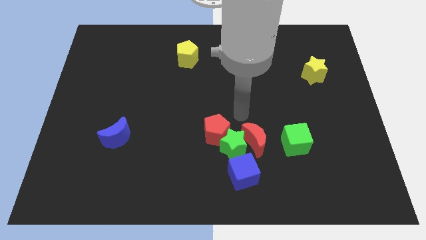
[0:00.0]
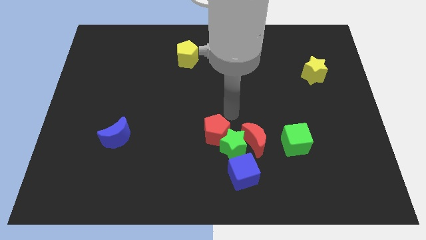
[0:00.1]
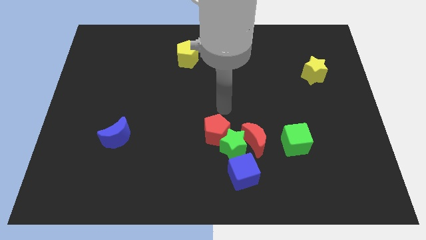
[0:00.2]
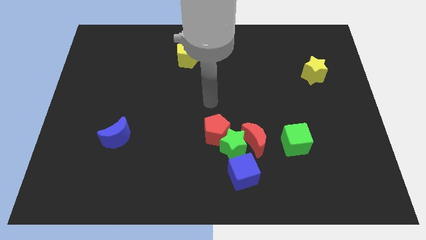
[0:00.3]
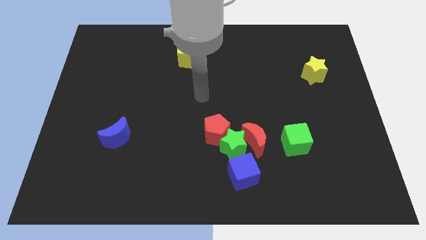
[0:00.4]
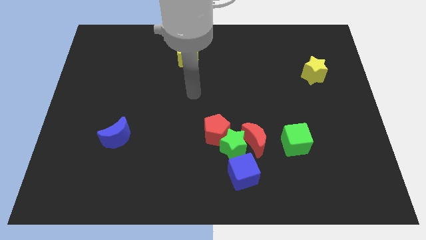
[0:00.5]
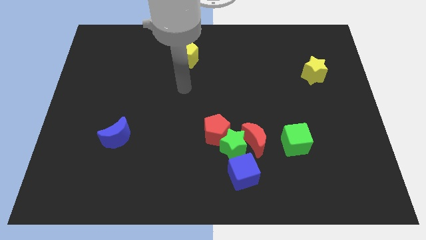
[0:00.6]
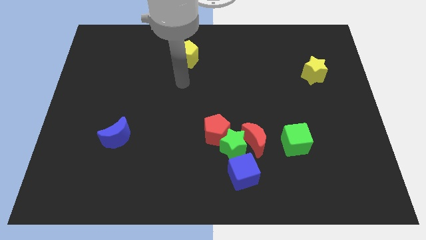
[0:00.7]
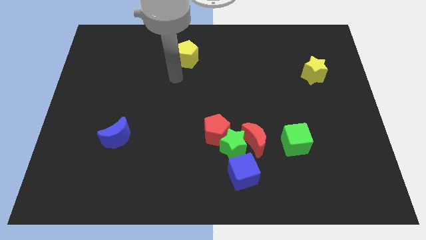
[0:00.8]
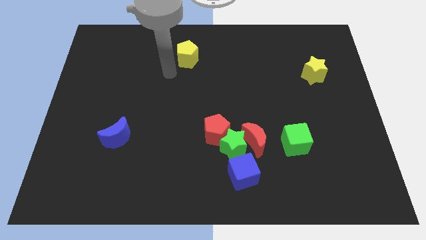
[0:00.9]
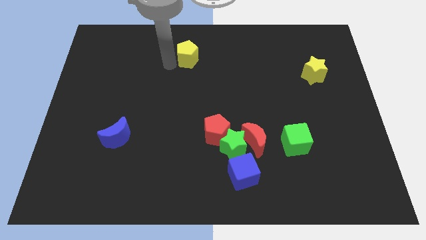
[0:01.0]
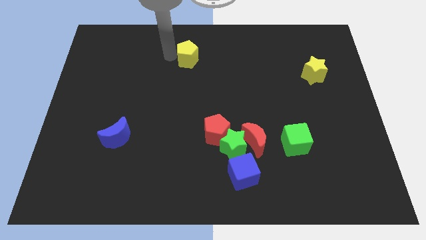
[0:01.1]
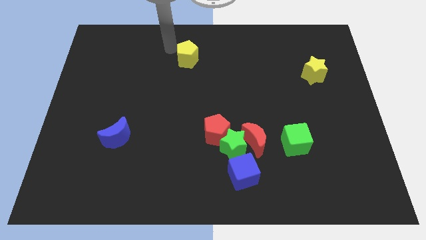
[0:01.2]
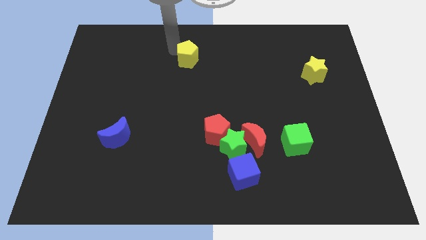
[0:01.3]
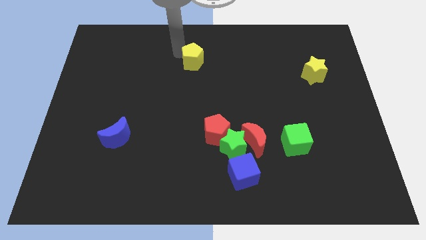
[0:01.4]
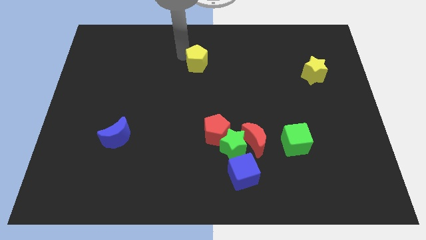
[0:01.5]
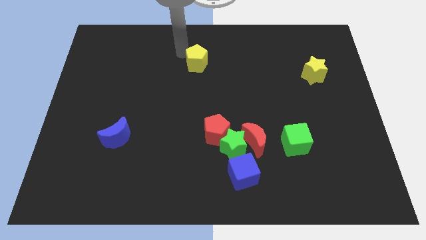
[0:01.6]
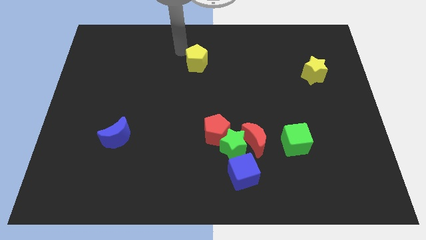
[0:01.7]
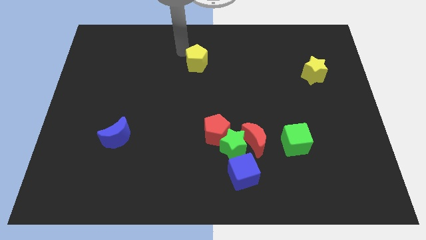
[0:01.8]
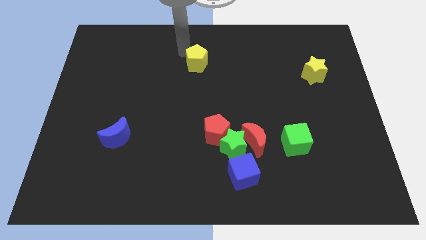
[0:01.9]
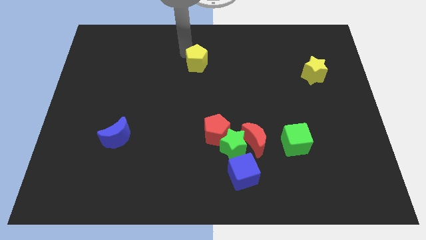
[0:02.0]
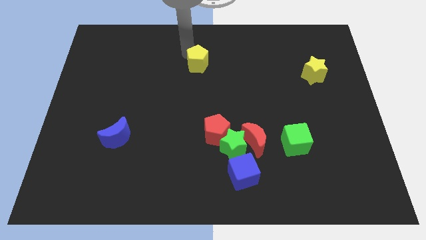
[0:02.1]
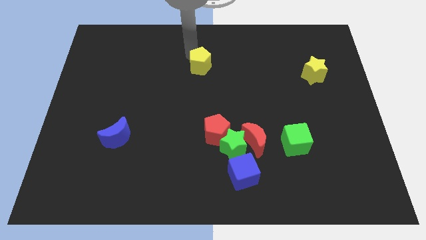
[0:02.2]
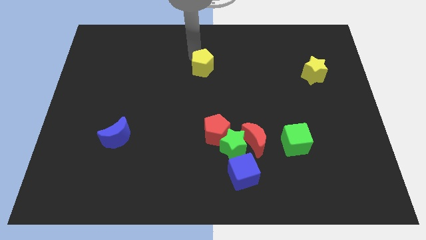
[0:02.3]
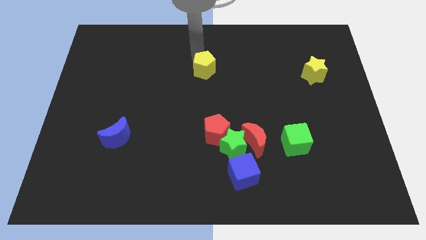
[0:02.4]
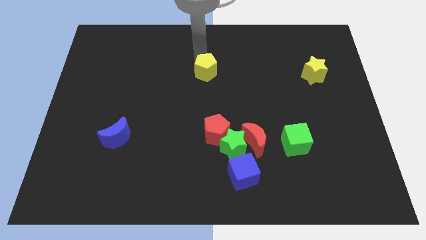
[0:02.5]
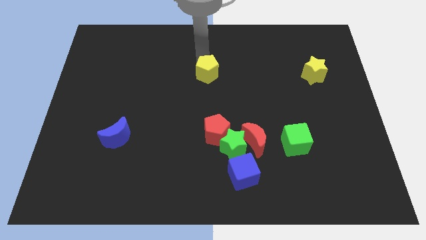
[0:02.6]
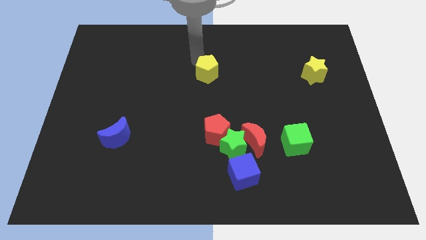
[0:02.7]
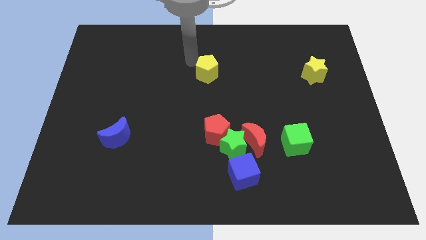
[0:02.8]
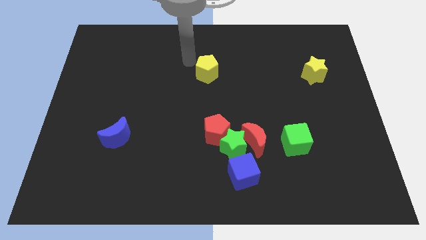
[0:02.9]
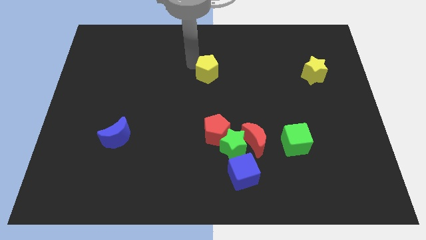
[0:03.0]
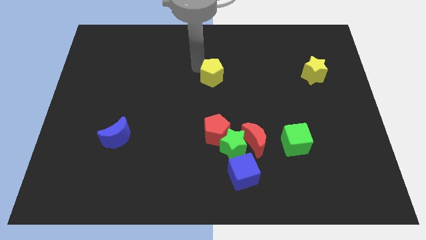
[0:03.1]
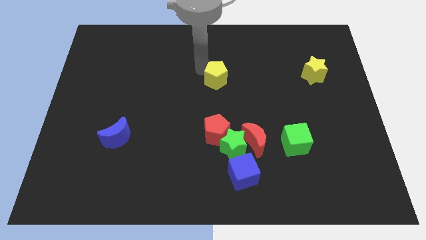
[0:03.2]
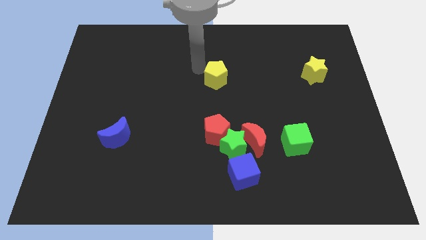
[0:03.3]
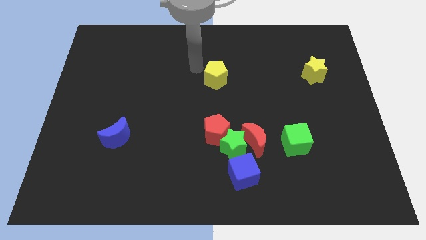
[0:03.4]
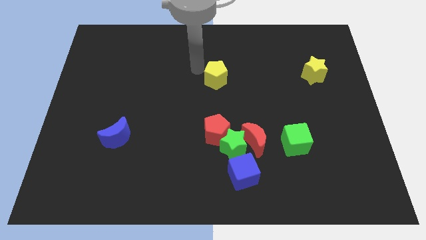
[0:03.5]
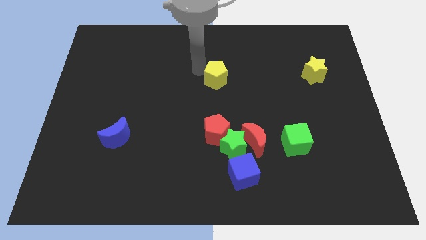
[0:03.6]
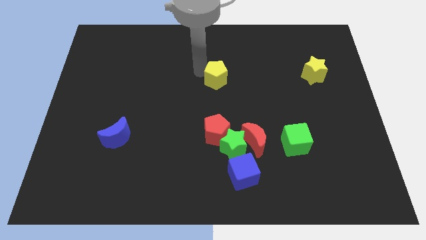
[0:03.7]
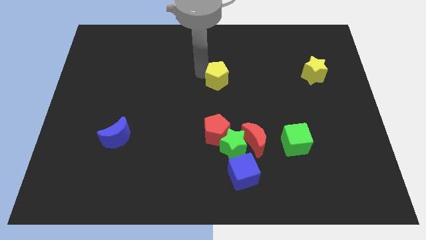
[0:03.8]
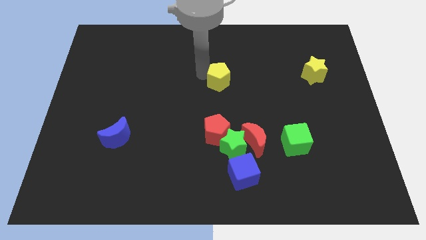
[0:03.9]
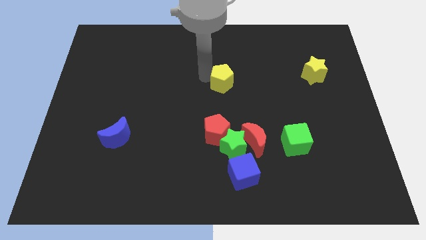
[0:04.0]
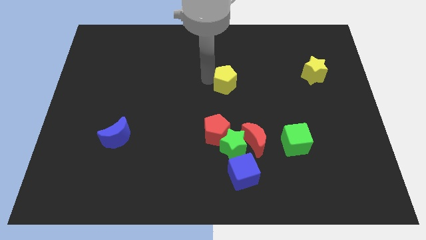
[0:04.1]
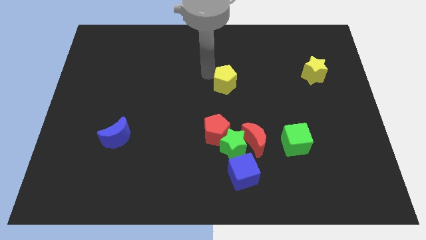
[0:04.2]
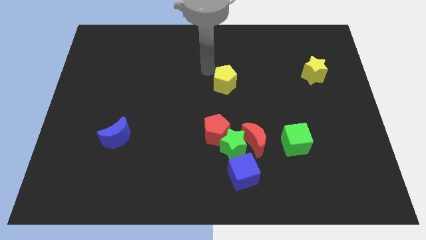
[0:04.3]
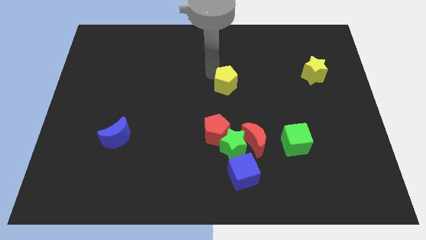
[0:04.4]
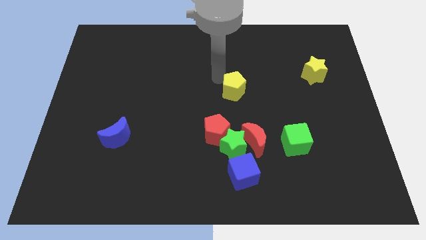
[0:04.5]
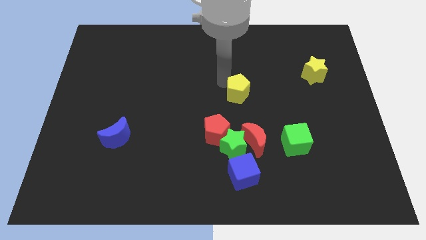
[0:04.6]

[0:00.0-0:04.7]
slide the yellow pentagon to the top side of the red moon

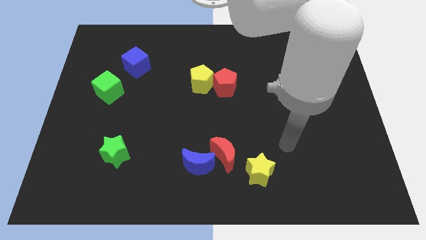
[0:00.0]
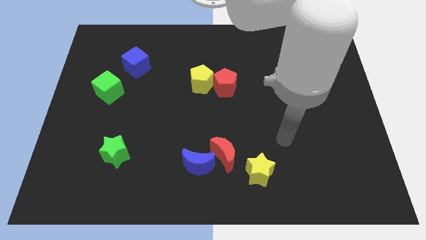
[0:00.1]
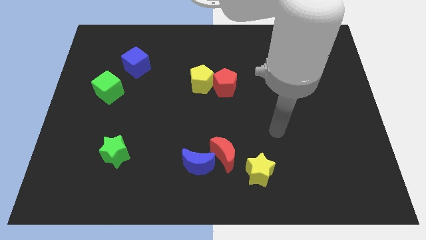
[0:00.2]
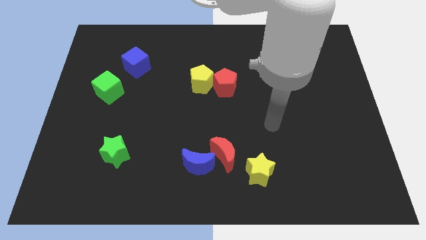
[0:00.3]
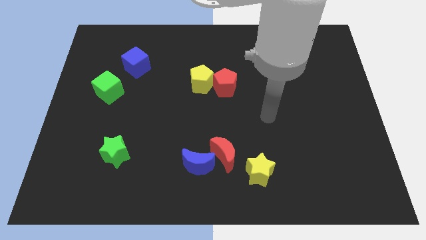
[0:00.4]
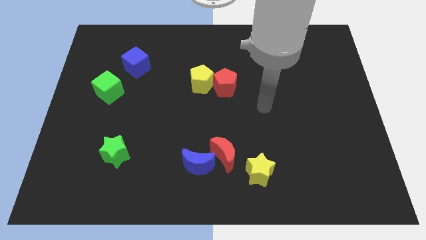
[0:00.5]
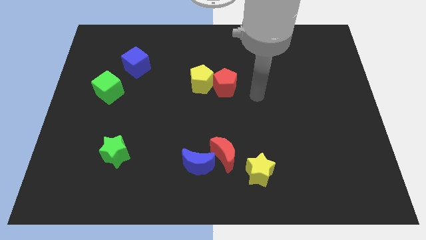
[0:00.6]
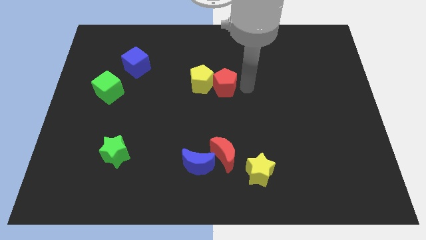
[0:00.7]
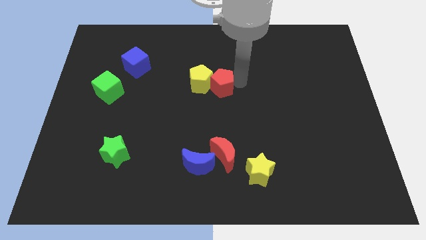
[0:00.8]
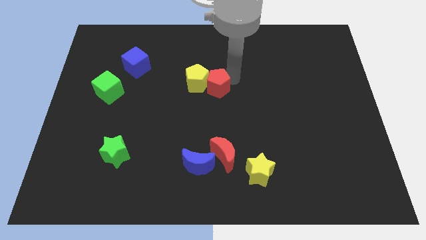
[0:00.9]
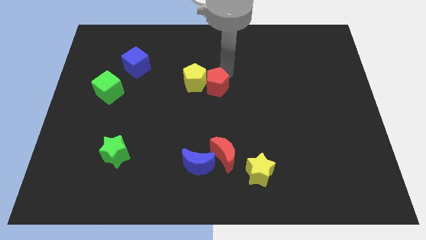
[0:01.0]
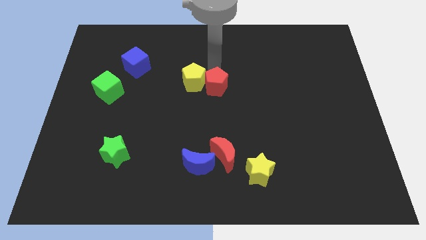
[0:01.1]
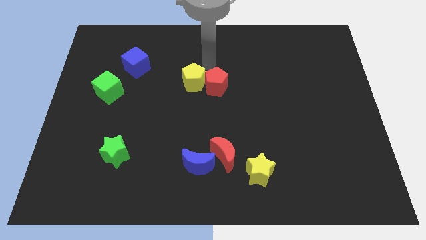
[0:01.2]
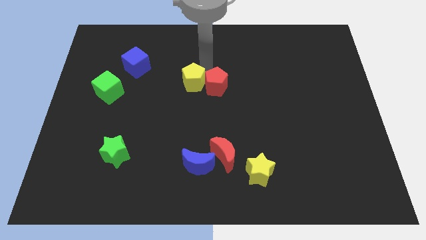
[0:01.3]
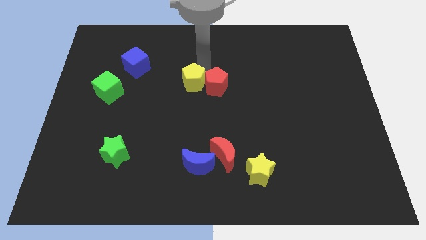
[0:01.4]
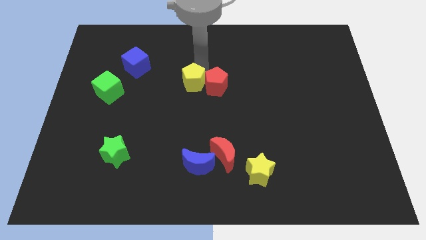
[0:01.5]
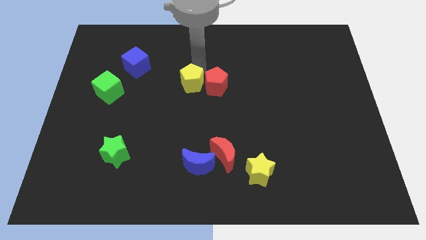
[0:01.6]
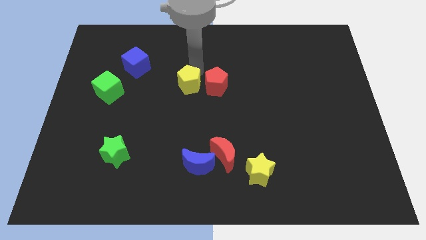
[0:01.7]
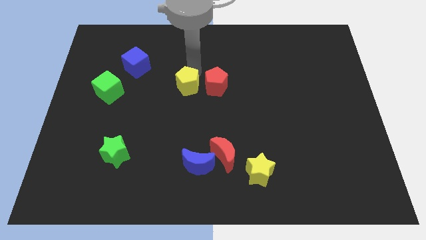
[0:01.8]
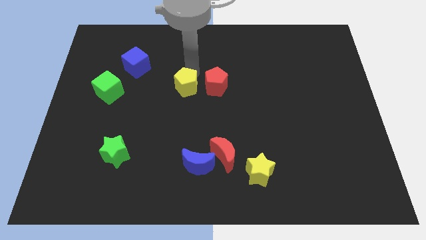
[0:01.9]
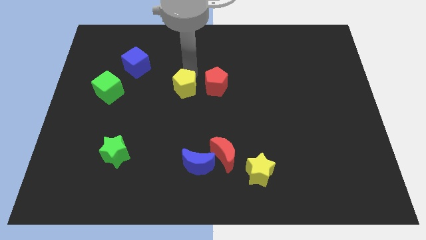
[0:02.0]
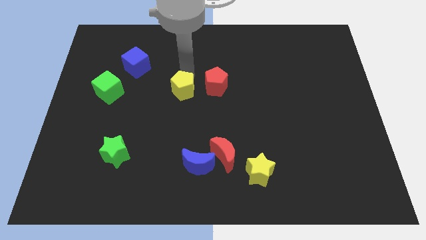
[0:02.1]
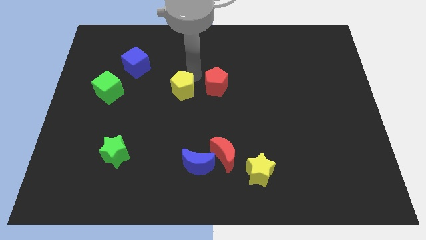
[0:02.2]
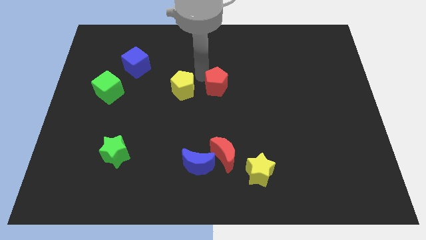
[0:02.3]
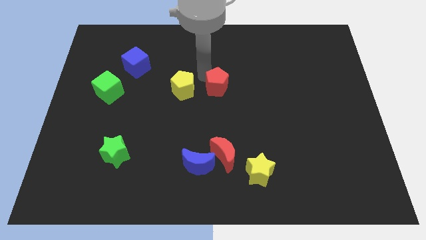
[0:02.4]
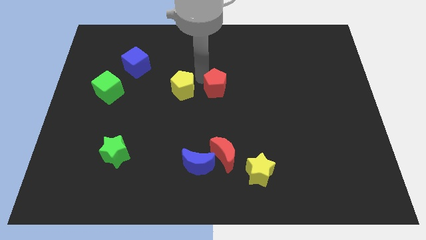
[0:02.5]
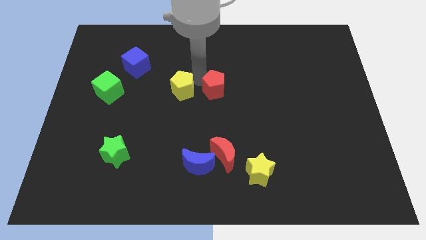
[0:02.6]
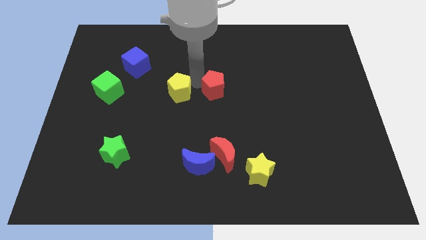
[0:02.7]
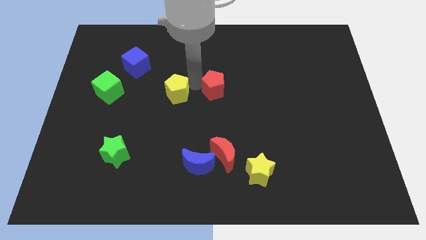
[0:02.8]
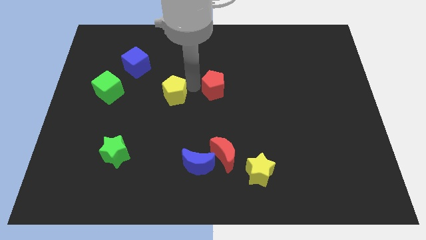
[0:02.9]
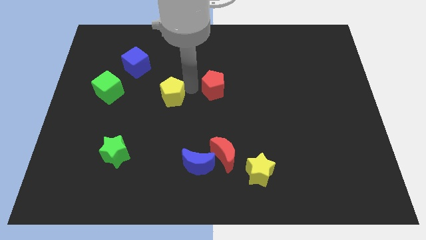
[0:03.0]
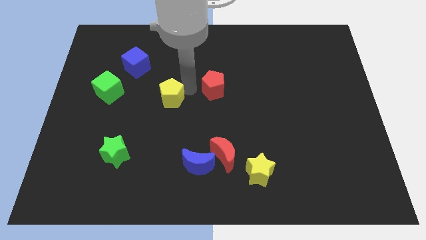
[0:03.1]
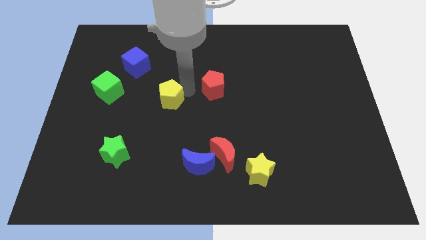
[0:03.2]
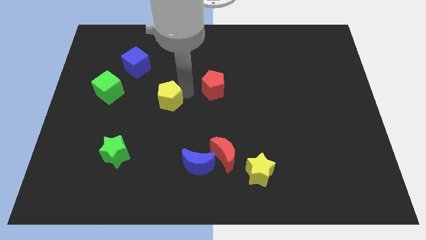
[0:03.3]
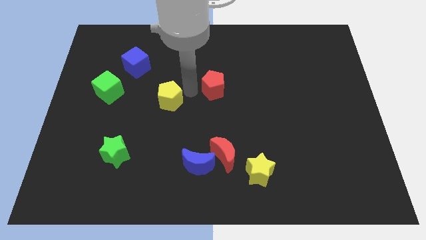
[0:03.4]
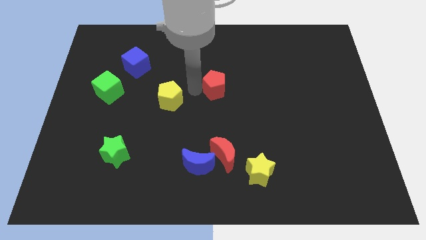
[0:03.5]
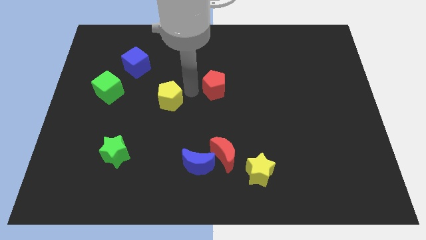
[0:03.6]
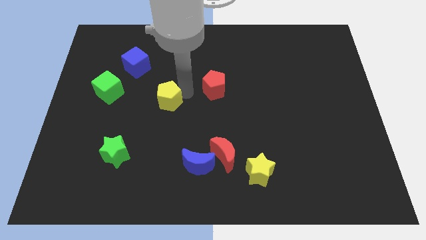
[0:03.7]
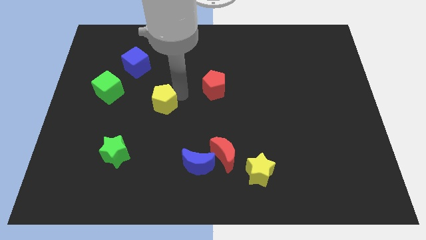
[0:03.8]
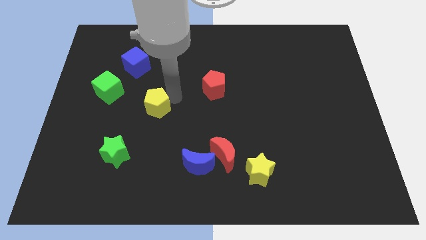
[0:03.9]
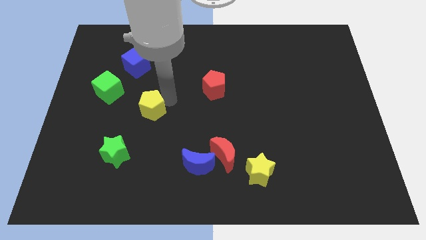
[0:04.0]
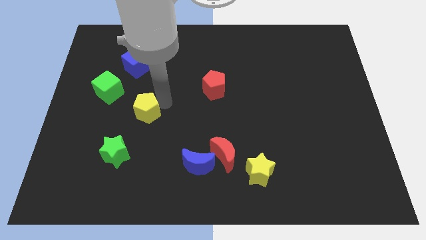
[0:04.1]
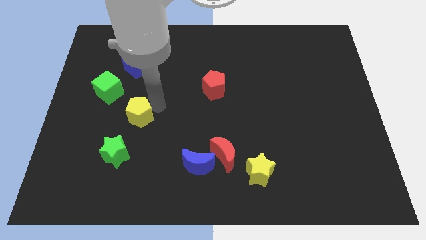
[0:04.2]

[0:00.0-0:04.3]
put the yellow pentagon to the top of the green star
